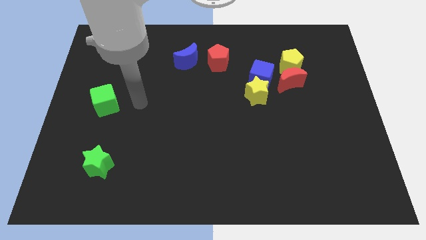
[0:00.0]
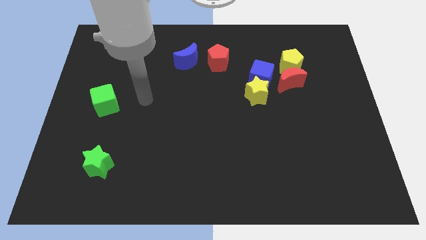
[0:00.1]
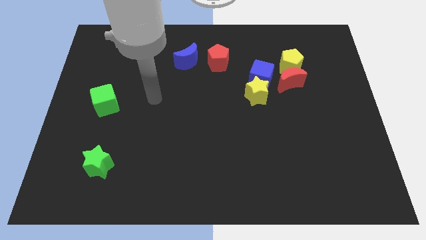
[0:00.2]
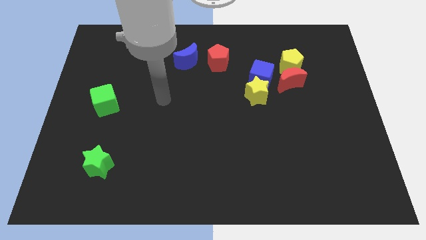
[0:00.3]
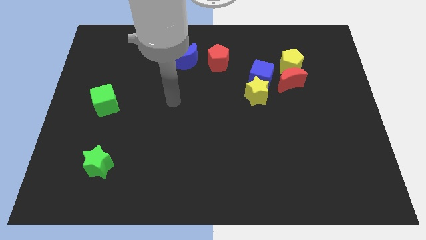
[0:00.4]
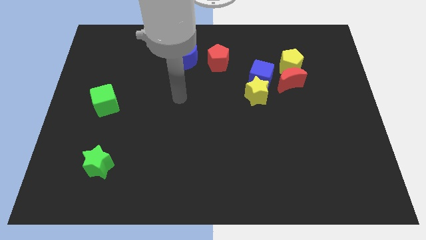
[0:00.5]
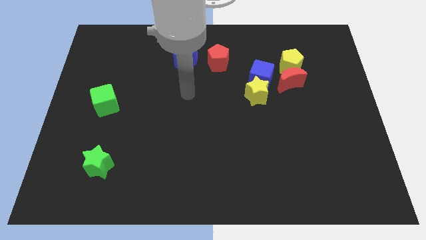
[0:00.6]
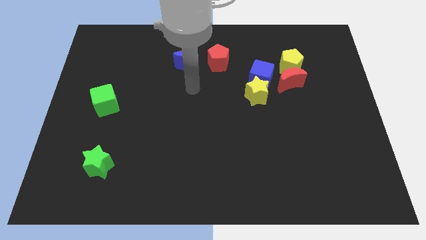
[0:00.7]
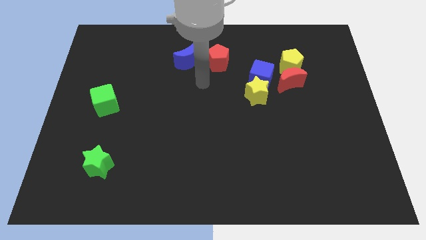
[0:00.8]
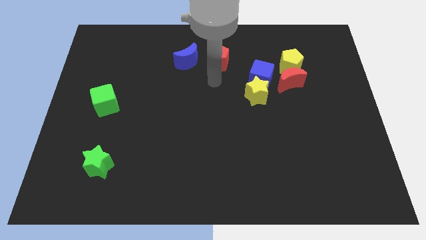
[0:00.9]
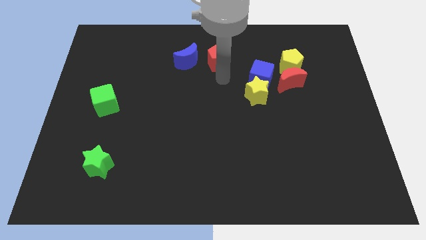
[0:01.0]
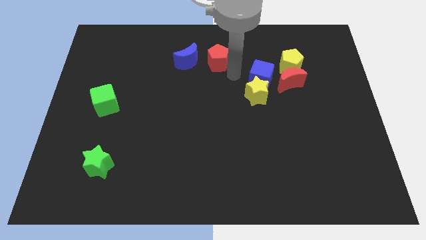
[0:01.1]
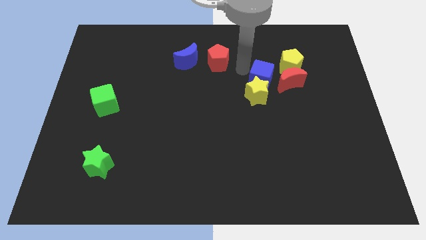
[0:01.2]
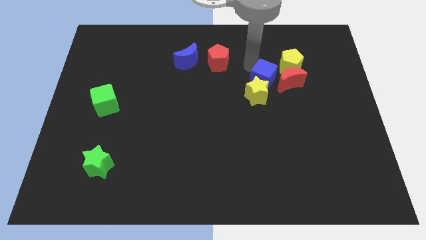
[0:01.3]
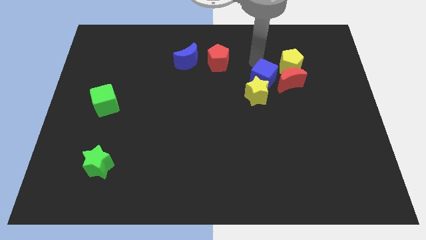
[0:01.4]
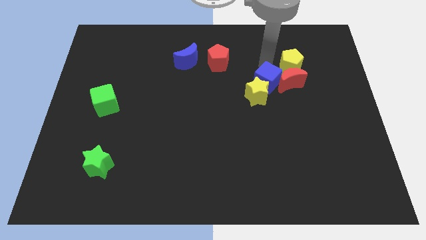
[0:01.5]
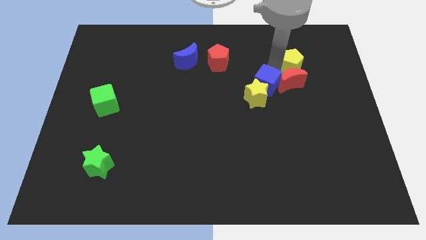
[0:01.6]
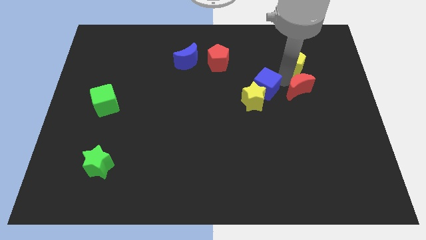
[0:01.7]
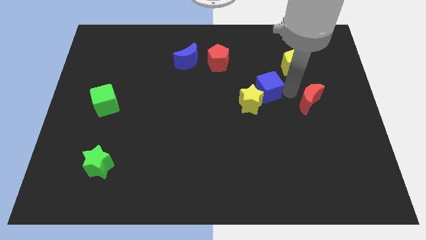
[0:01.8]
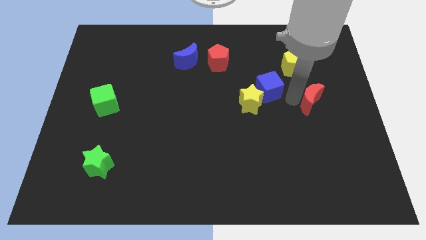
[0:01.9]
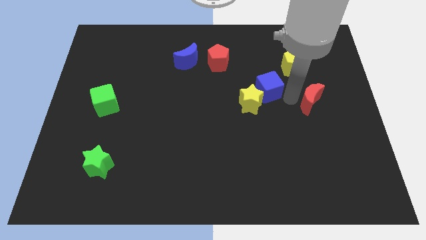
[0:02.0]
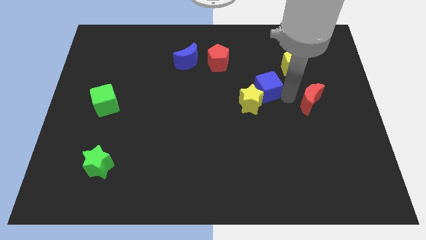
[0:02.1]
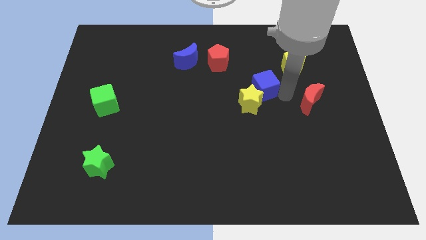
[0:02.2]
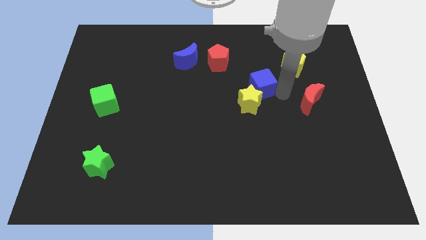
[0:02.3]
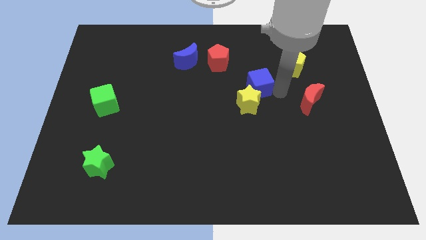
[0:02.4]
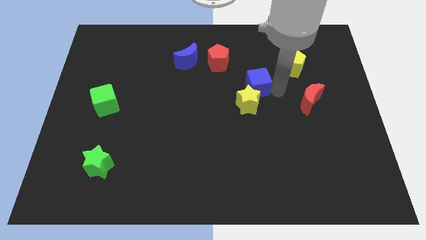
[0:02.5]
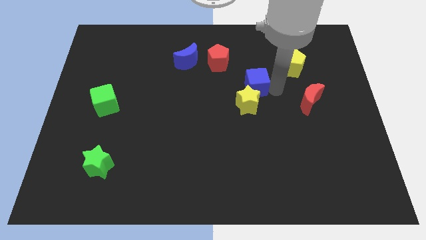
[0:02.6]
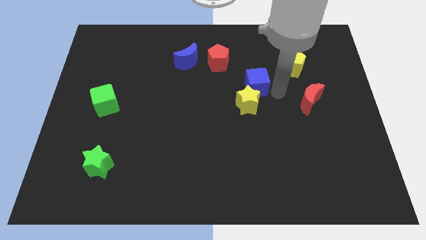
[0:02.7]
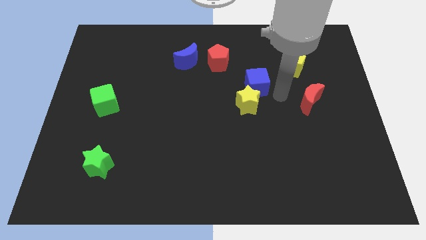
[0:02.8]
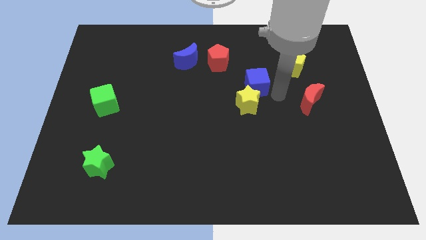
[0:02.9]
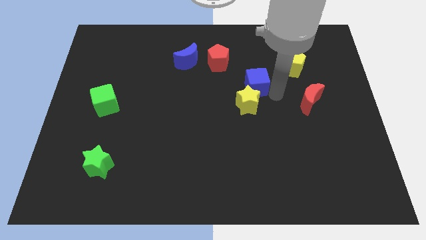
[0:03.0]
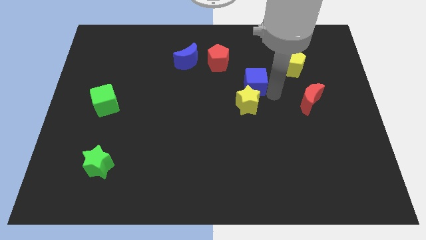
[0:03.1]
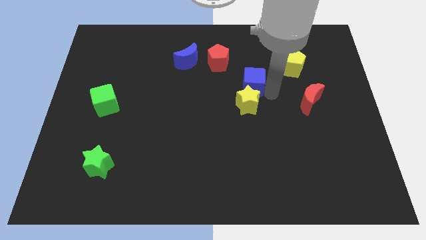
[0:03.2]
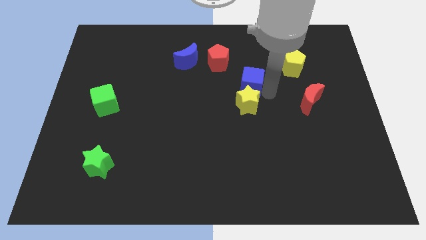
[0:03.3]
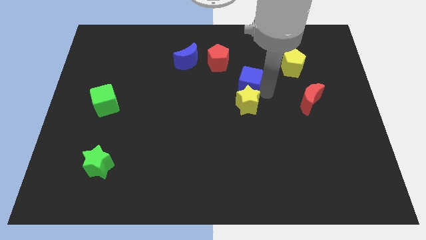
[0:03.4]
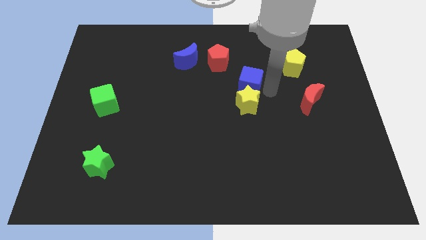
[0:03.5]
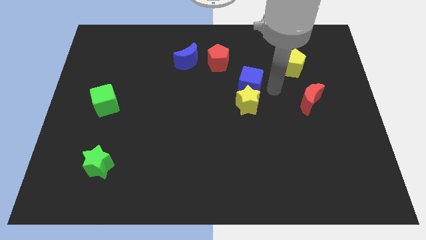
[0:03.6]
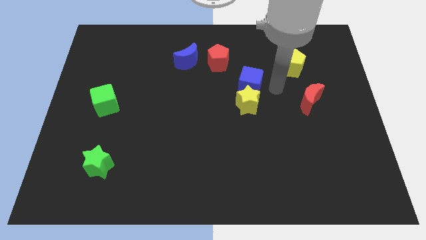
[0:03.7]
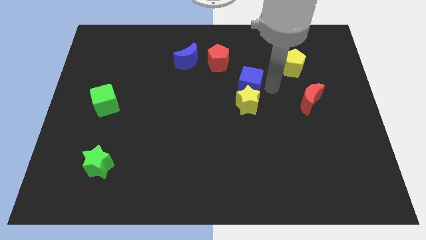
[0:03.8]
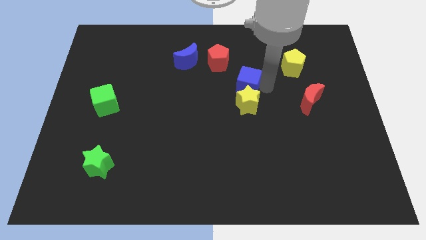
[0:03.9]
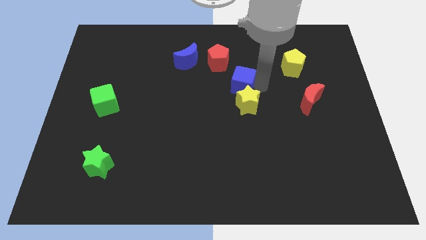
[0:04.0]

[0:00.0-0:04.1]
separate the blue cube from the yellow star, red moon, and yellow pentagon

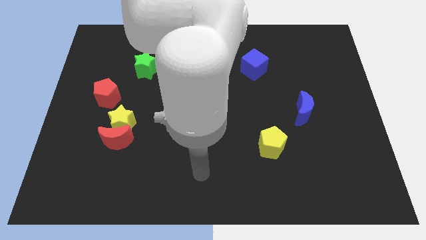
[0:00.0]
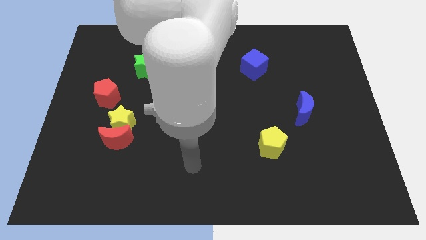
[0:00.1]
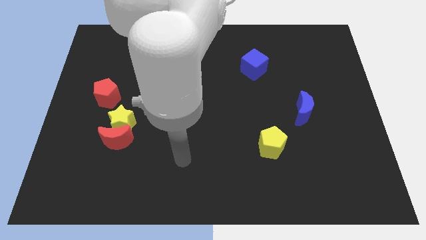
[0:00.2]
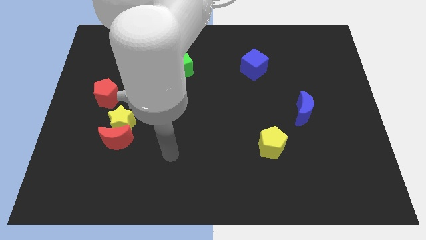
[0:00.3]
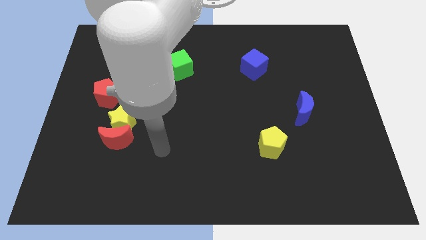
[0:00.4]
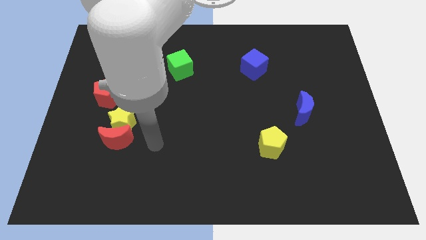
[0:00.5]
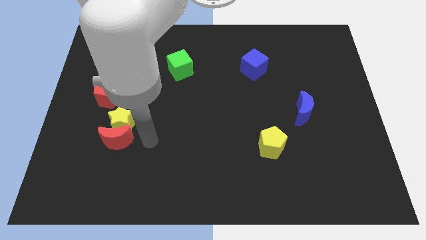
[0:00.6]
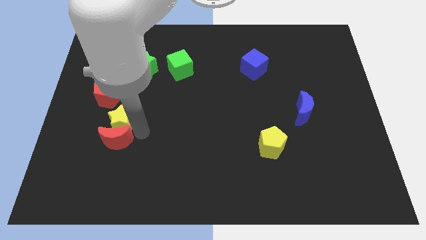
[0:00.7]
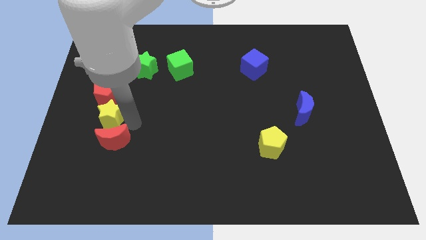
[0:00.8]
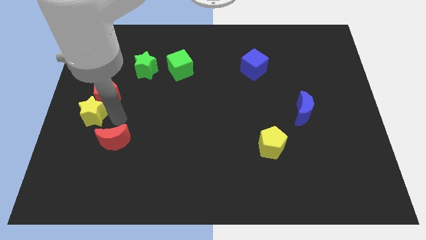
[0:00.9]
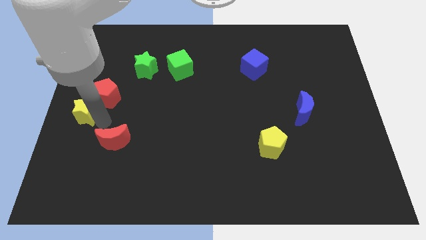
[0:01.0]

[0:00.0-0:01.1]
move the red moon away from the yellow star

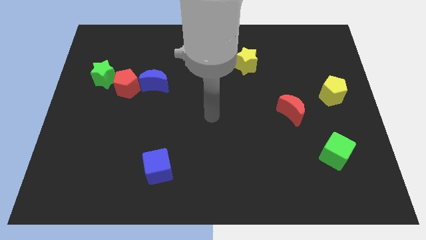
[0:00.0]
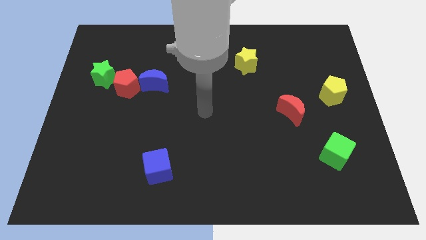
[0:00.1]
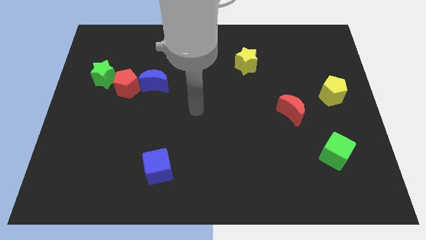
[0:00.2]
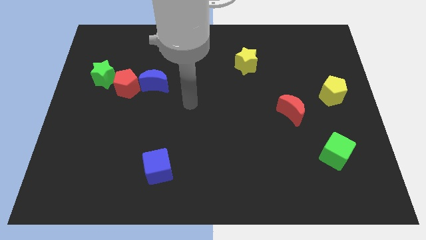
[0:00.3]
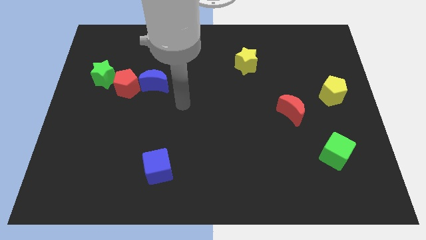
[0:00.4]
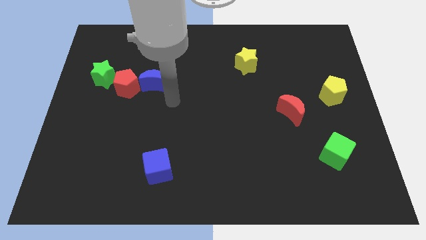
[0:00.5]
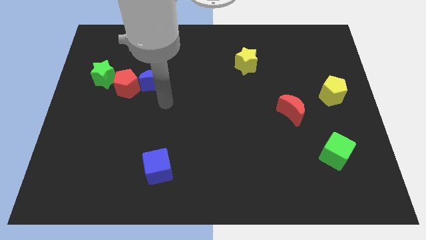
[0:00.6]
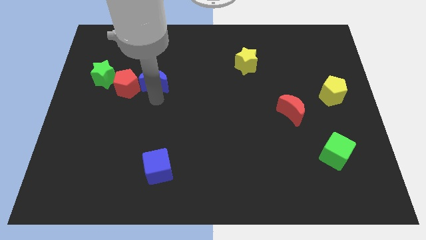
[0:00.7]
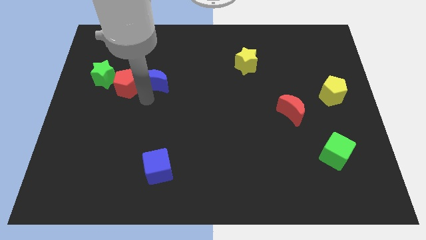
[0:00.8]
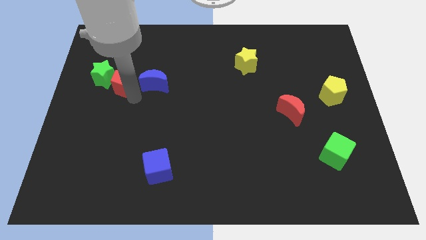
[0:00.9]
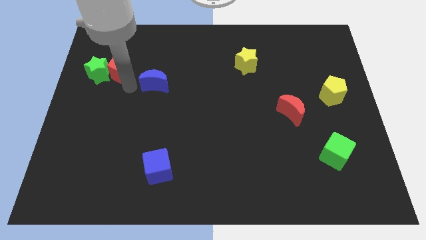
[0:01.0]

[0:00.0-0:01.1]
pull the blue moon apart from the red pentagon

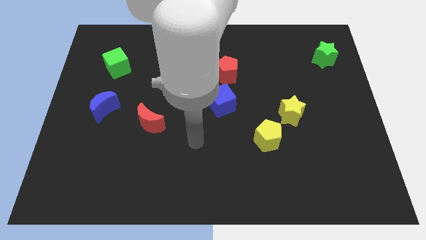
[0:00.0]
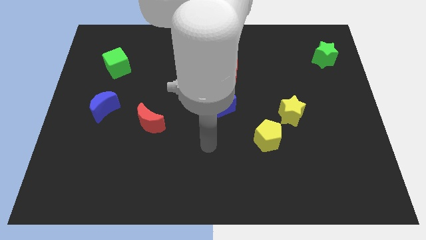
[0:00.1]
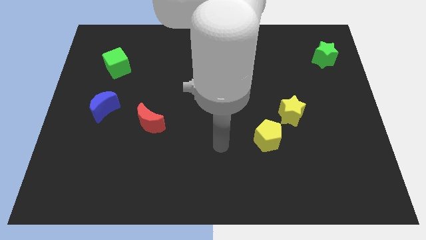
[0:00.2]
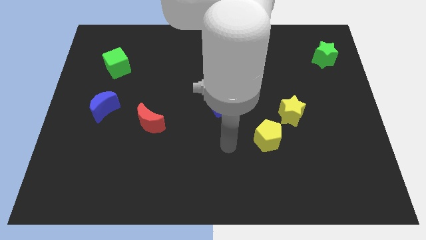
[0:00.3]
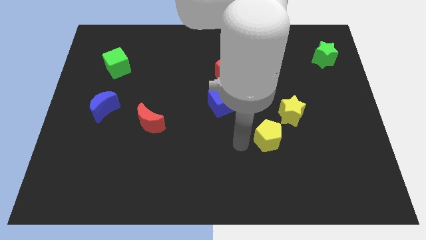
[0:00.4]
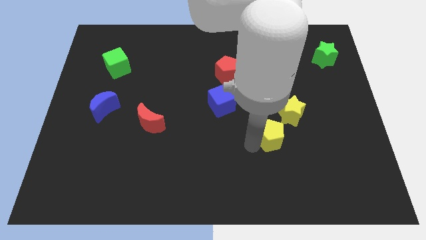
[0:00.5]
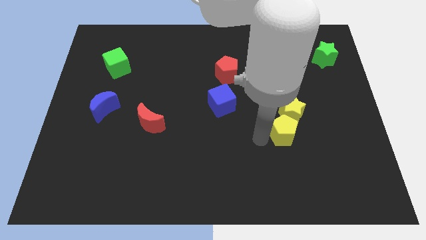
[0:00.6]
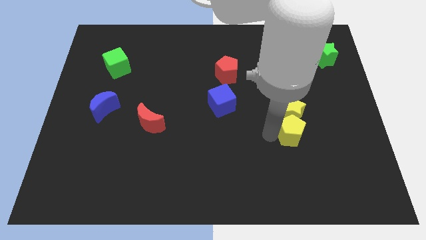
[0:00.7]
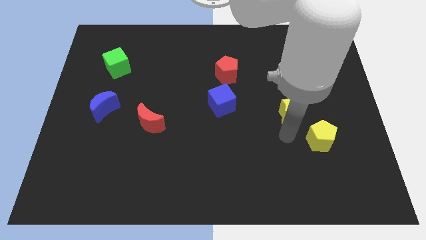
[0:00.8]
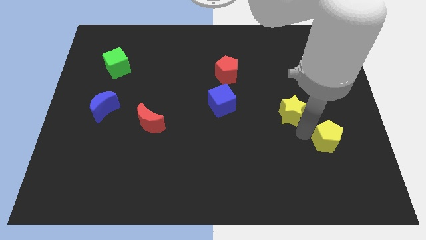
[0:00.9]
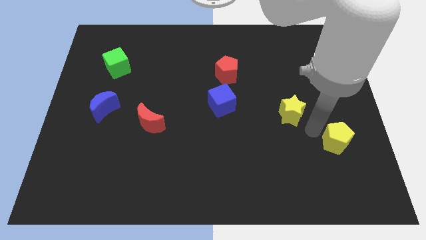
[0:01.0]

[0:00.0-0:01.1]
move the yellow star away from the yellow pentagon

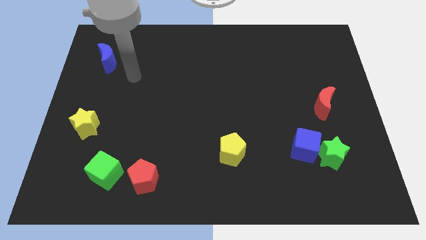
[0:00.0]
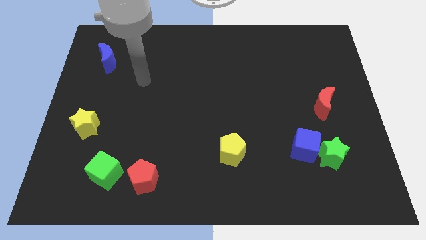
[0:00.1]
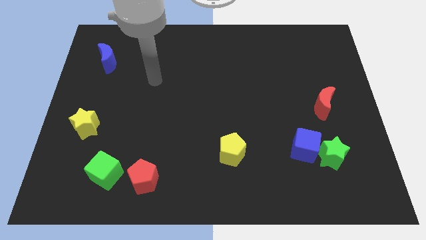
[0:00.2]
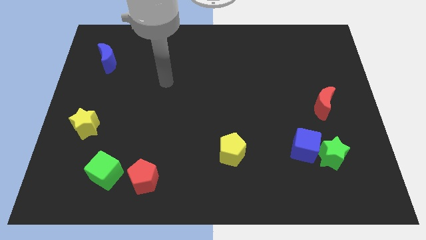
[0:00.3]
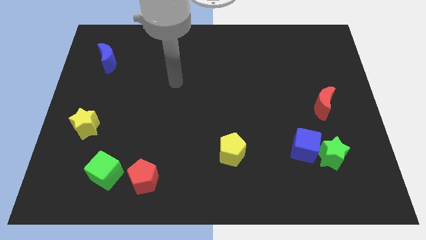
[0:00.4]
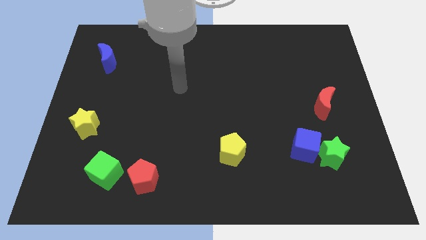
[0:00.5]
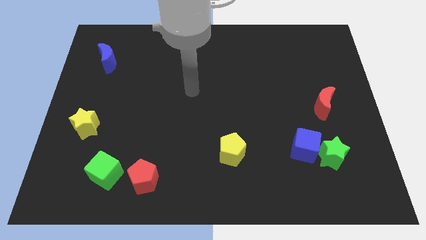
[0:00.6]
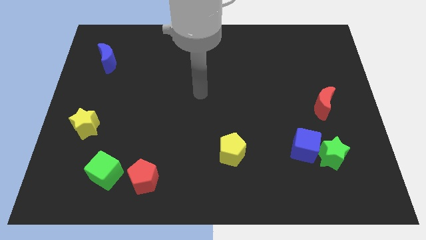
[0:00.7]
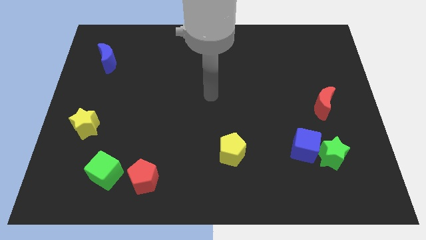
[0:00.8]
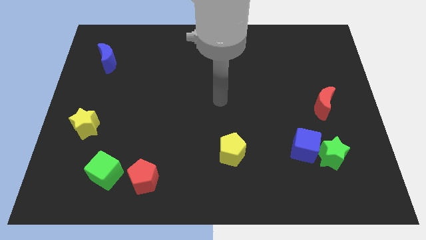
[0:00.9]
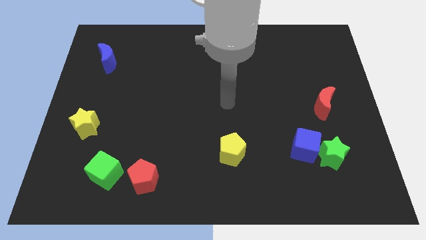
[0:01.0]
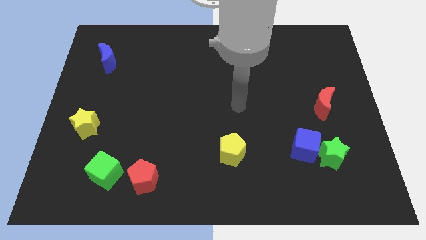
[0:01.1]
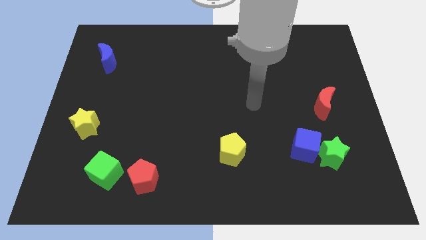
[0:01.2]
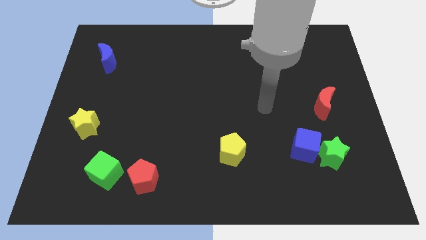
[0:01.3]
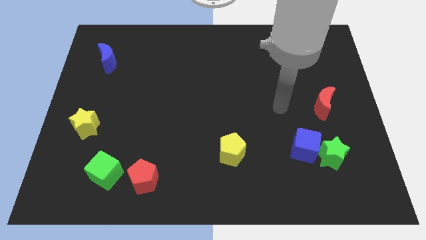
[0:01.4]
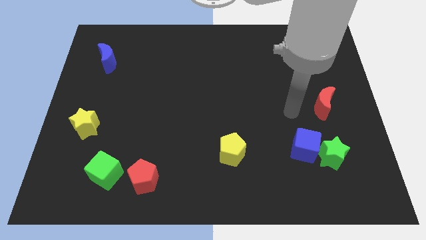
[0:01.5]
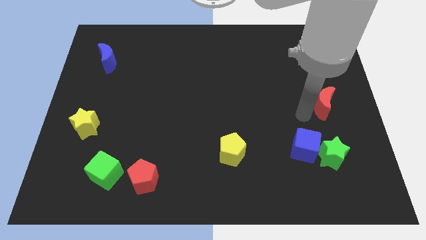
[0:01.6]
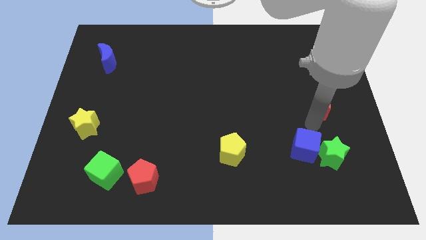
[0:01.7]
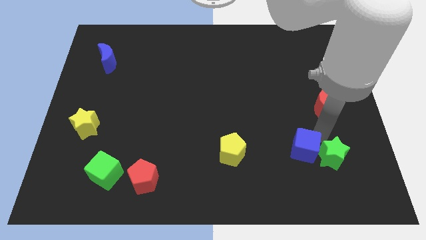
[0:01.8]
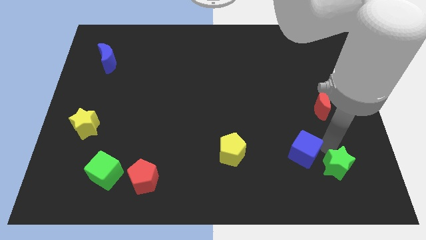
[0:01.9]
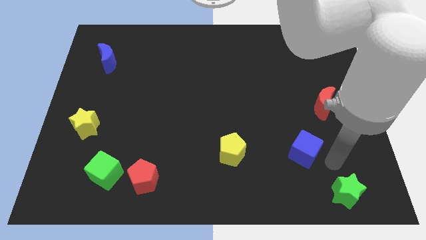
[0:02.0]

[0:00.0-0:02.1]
pull the blue cube apart from the green star
